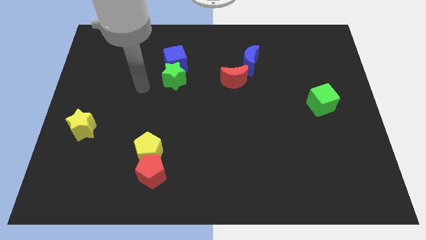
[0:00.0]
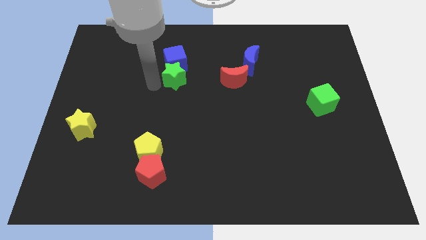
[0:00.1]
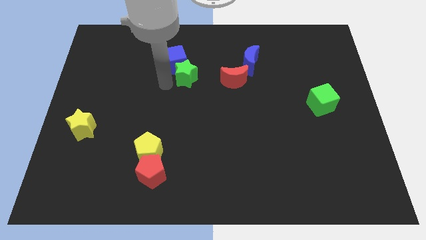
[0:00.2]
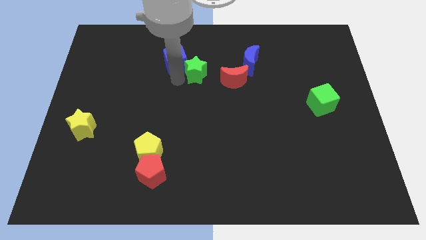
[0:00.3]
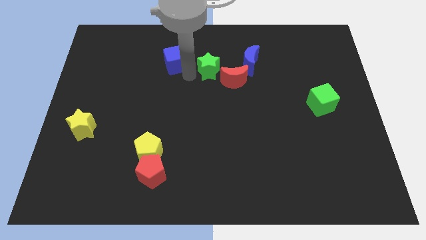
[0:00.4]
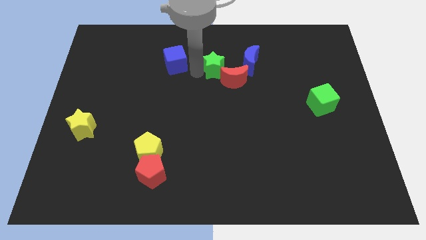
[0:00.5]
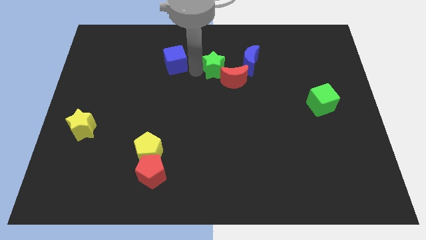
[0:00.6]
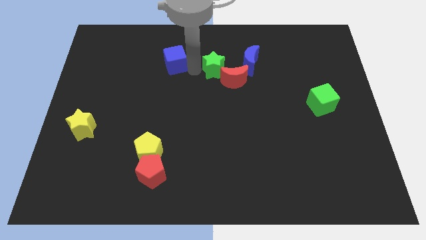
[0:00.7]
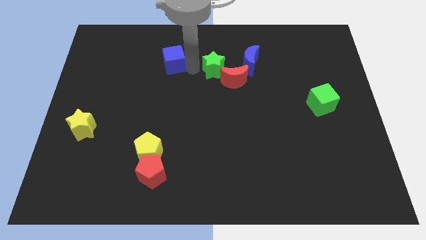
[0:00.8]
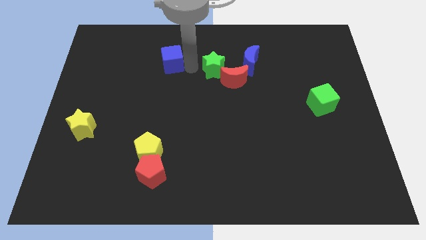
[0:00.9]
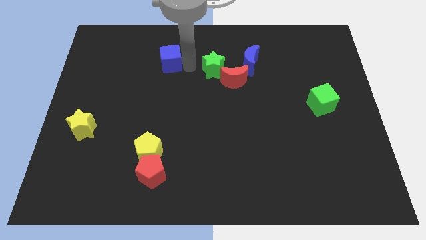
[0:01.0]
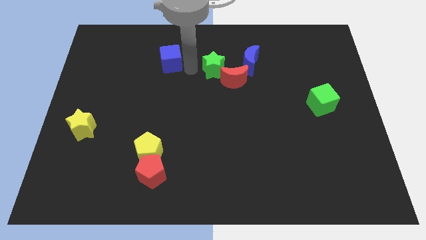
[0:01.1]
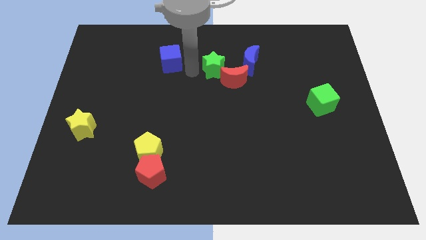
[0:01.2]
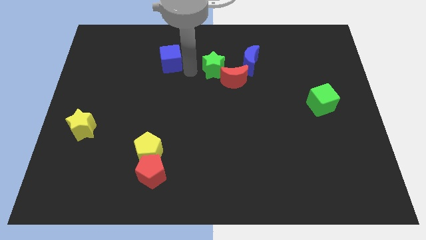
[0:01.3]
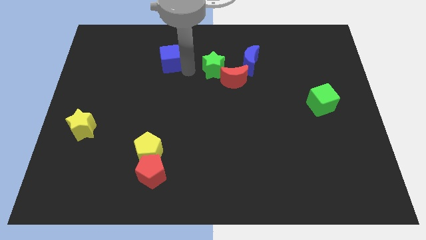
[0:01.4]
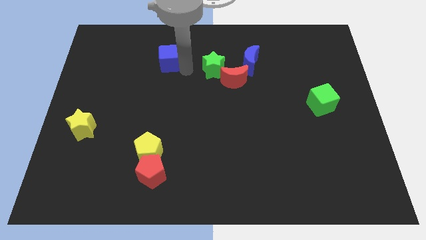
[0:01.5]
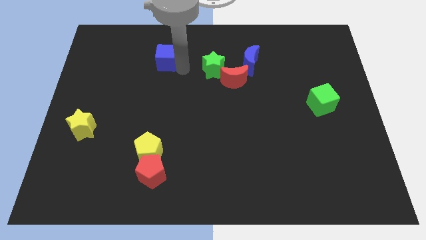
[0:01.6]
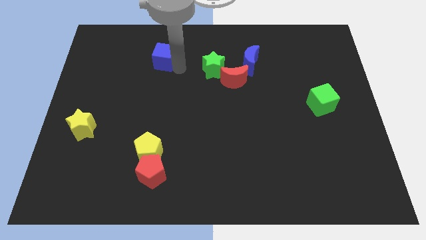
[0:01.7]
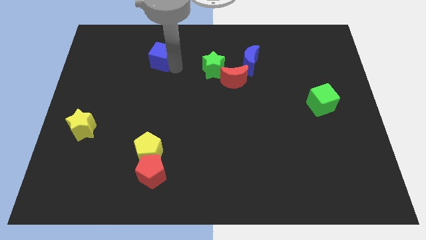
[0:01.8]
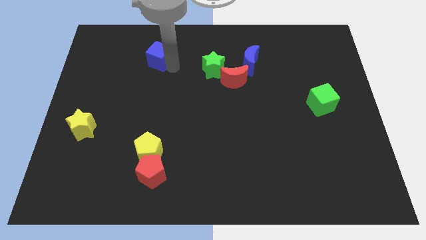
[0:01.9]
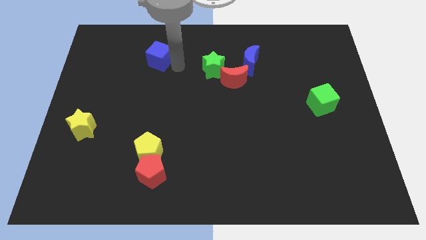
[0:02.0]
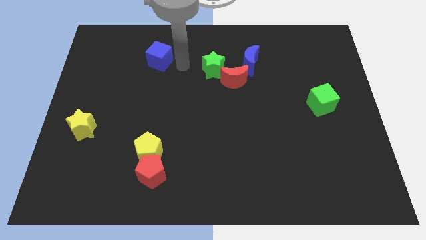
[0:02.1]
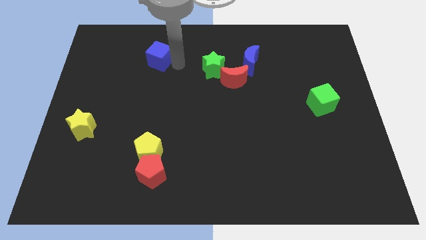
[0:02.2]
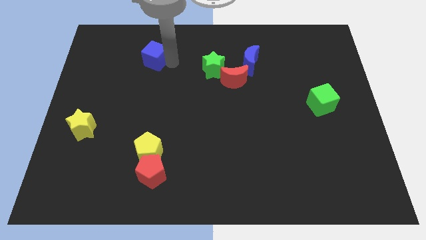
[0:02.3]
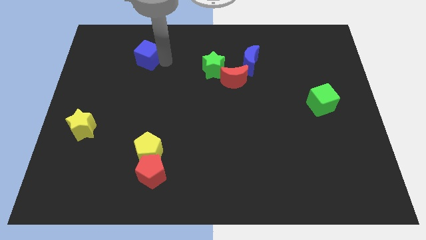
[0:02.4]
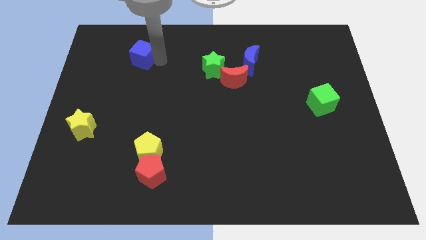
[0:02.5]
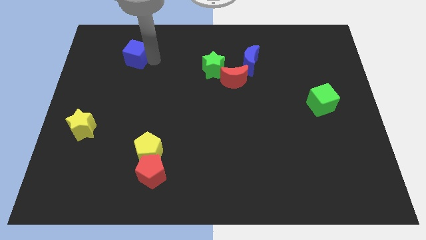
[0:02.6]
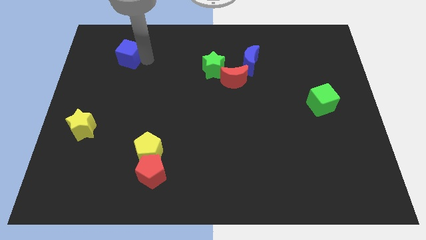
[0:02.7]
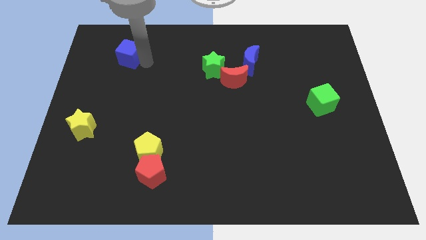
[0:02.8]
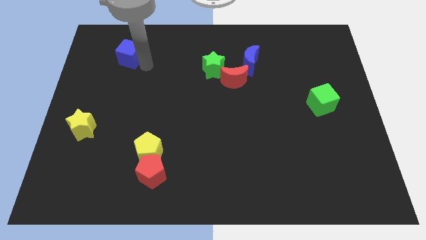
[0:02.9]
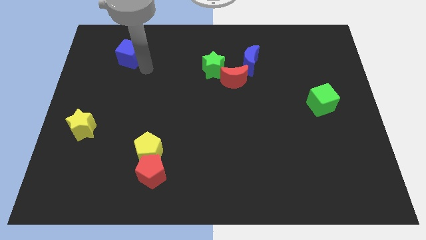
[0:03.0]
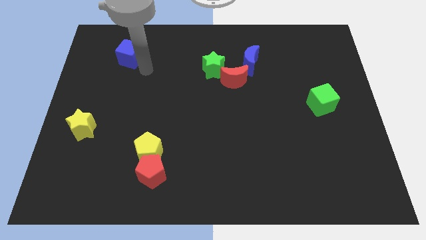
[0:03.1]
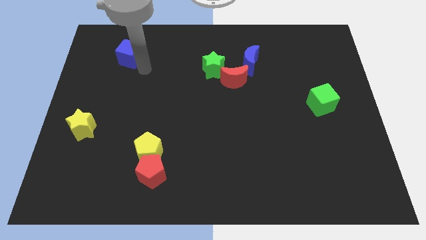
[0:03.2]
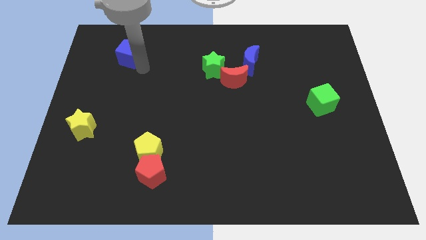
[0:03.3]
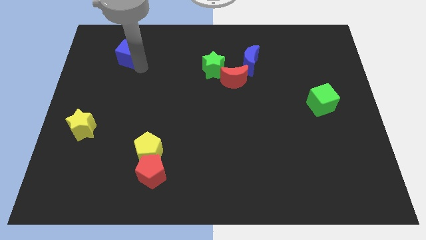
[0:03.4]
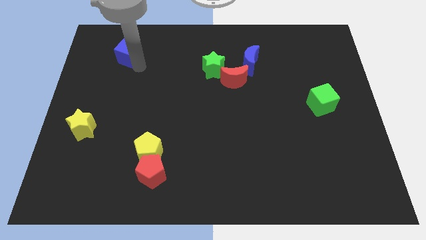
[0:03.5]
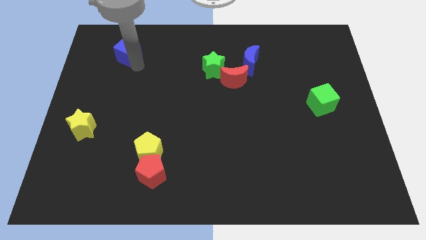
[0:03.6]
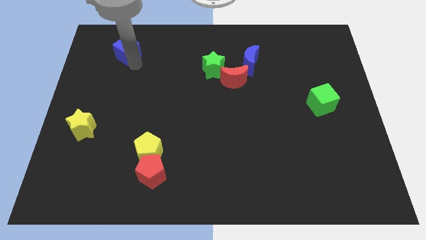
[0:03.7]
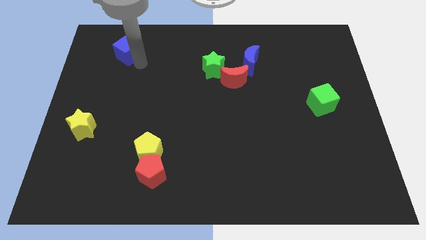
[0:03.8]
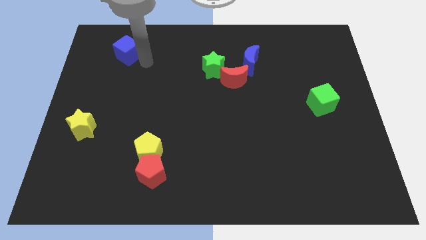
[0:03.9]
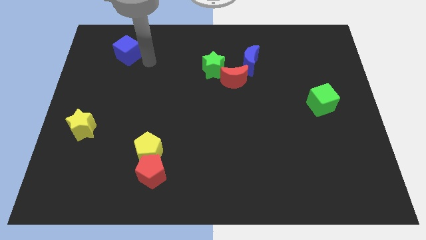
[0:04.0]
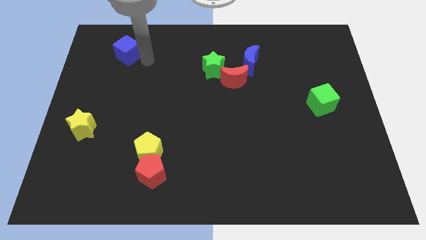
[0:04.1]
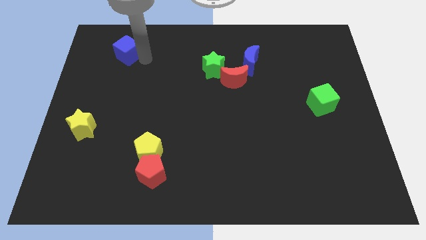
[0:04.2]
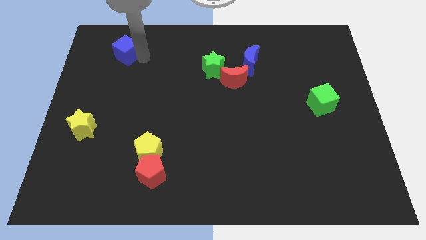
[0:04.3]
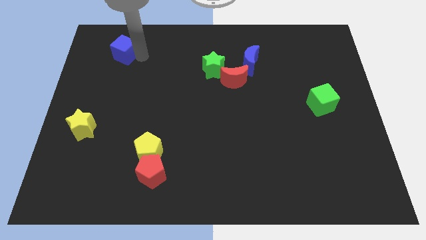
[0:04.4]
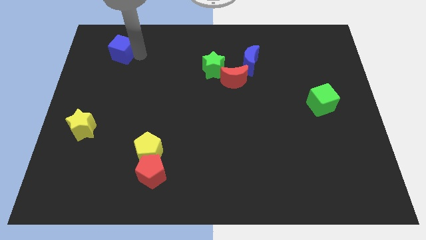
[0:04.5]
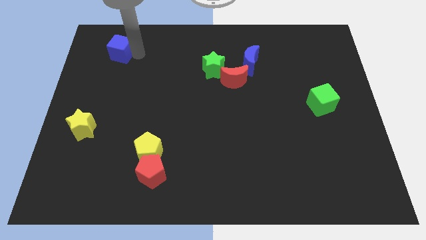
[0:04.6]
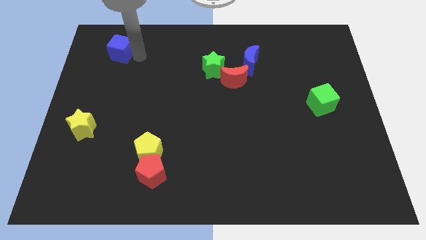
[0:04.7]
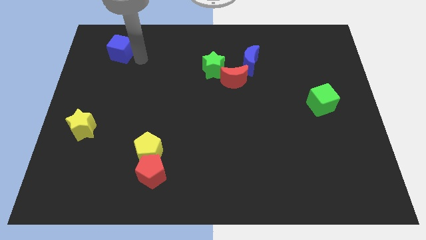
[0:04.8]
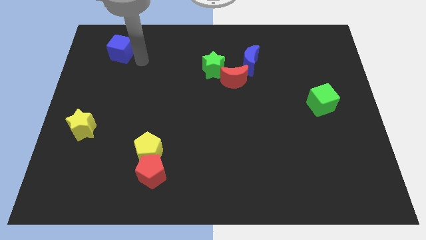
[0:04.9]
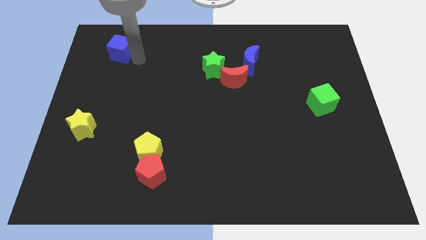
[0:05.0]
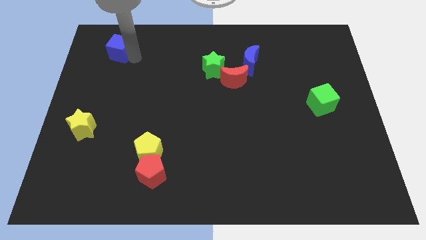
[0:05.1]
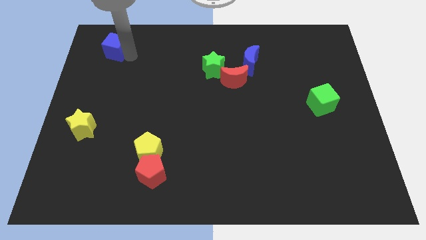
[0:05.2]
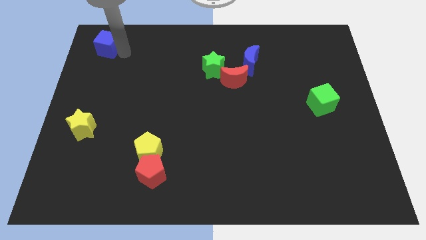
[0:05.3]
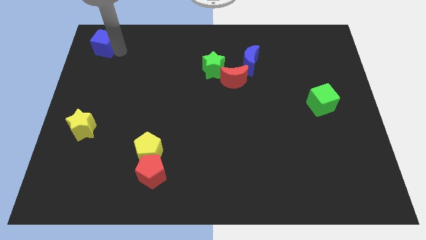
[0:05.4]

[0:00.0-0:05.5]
move the blue cube to the top left of the board

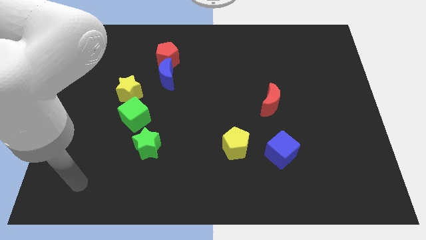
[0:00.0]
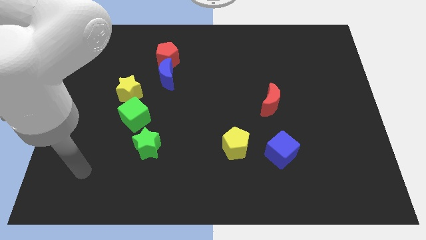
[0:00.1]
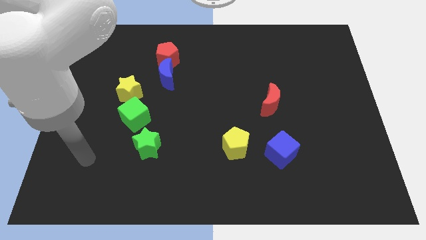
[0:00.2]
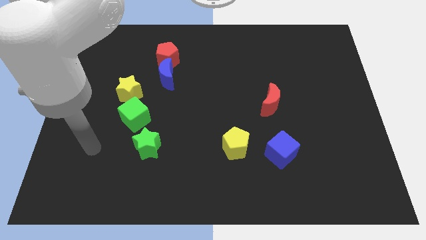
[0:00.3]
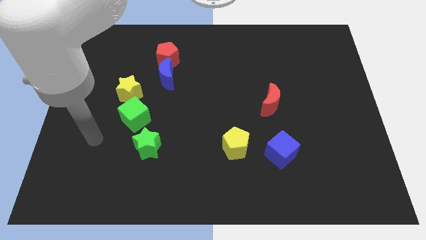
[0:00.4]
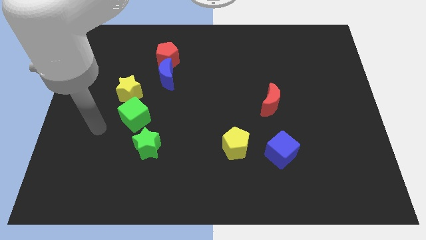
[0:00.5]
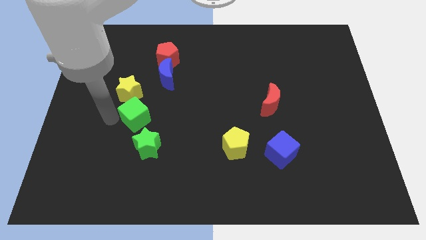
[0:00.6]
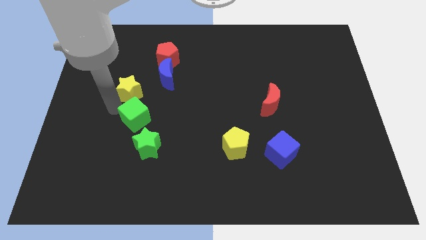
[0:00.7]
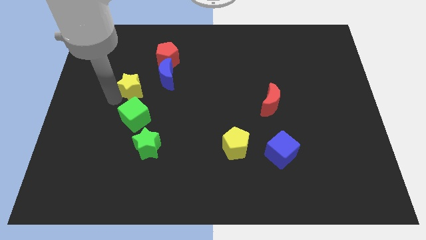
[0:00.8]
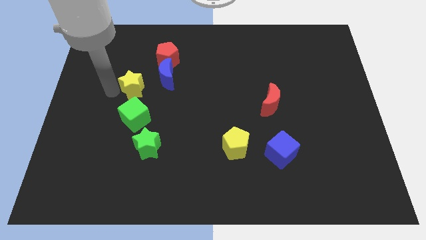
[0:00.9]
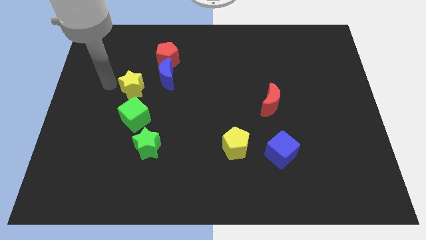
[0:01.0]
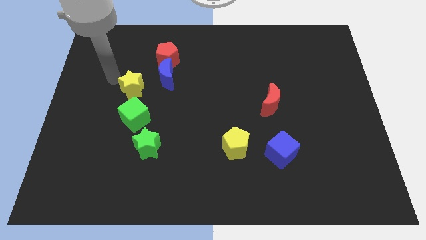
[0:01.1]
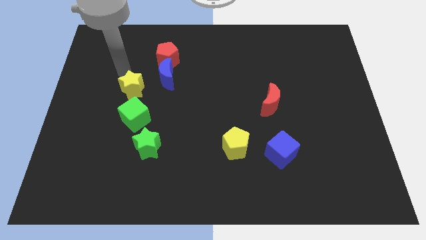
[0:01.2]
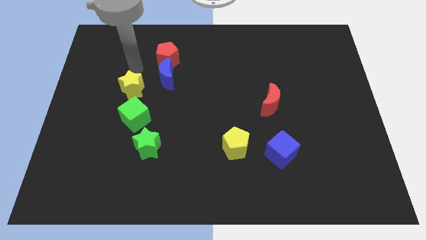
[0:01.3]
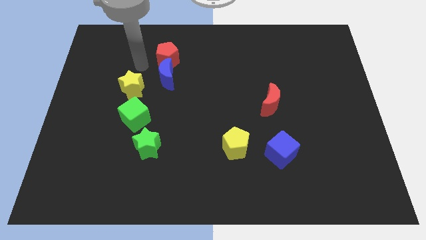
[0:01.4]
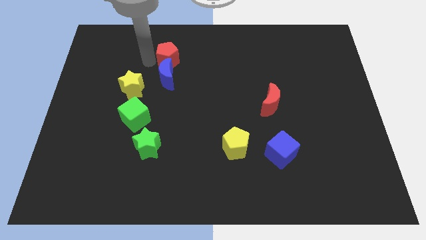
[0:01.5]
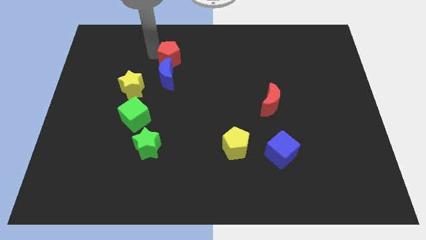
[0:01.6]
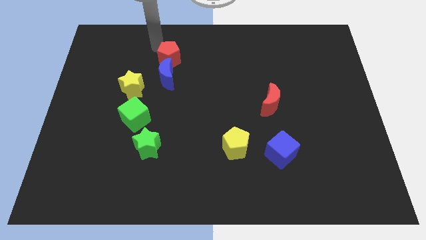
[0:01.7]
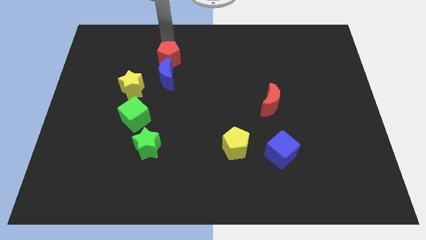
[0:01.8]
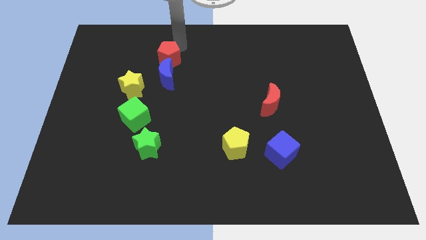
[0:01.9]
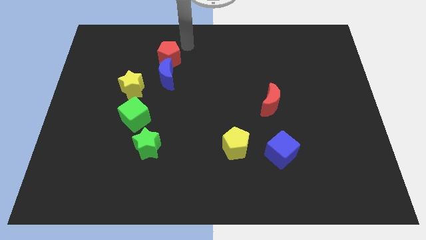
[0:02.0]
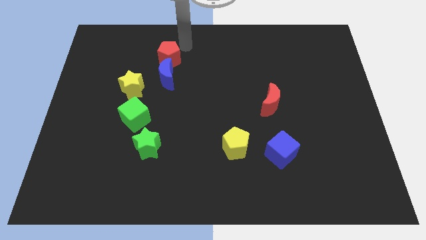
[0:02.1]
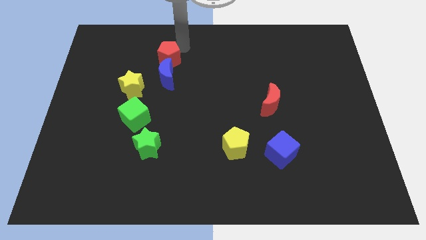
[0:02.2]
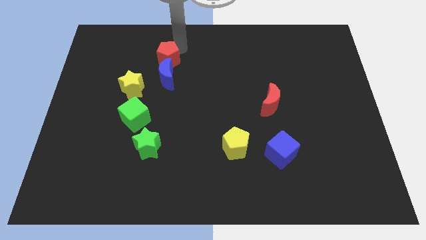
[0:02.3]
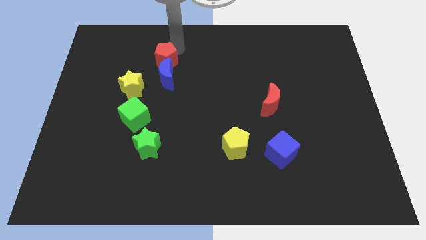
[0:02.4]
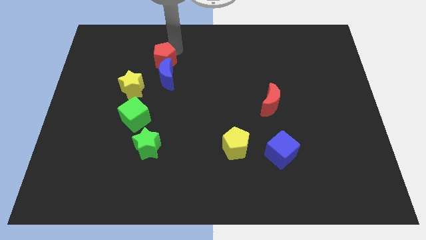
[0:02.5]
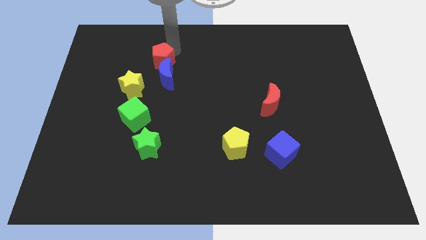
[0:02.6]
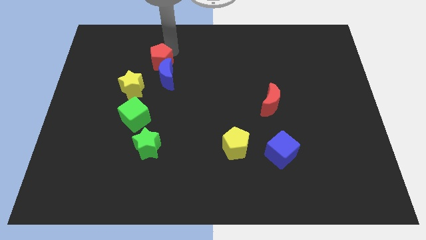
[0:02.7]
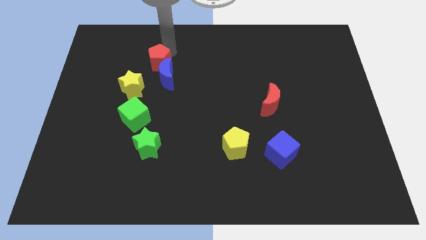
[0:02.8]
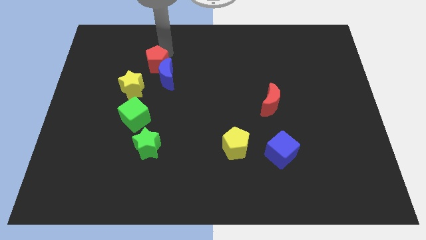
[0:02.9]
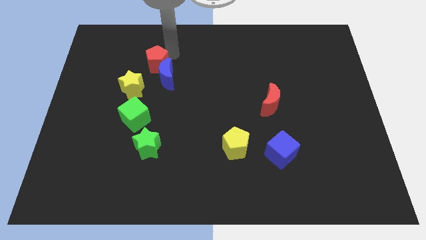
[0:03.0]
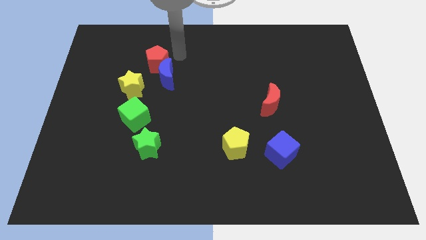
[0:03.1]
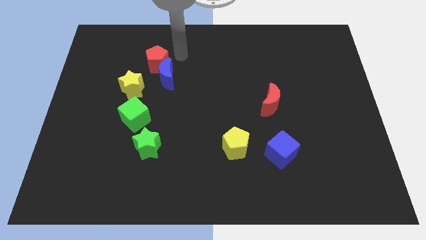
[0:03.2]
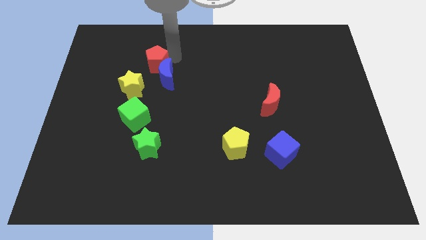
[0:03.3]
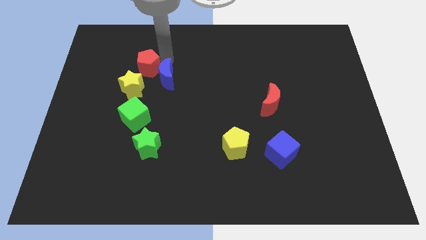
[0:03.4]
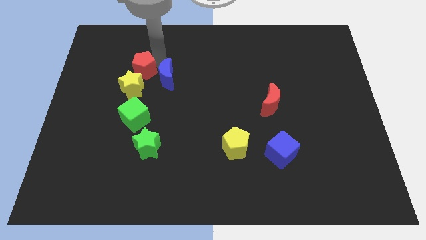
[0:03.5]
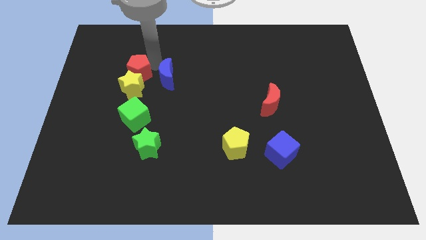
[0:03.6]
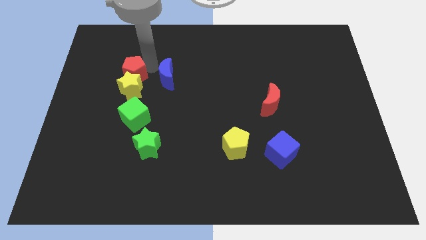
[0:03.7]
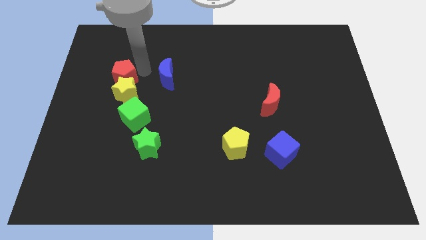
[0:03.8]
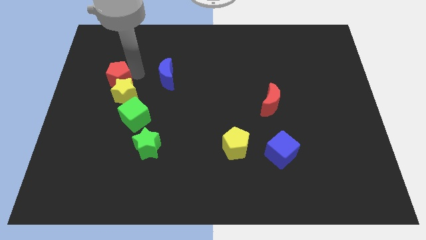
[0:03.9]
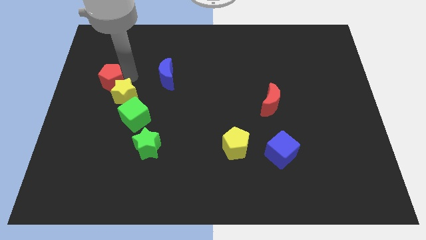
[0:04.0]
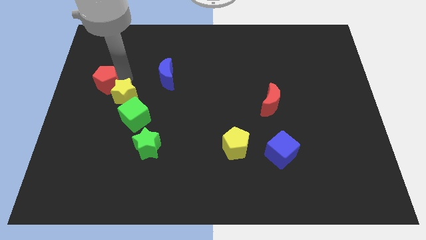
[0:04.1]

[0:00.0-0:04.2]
slide the red pentagon to the left side of the board
